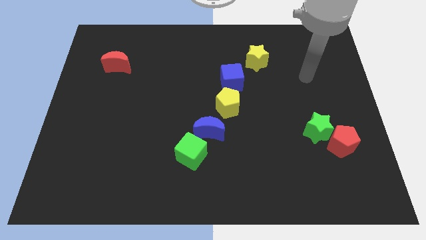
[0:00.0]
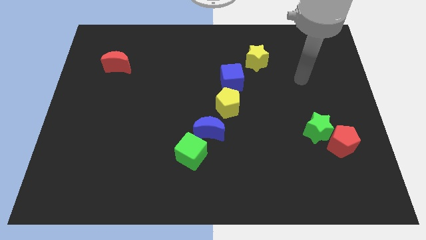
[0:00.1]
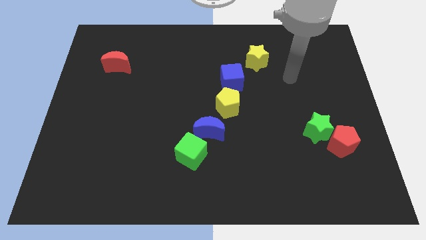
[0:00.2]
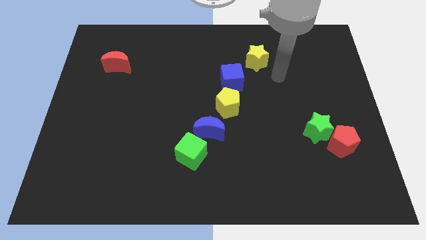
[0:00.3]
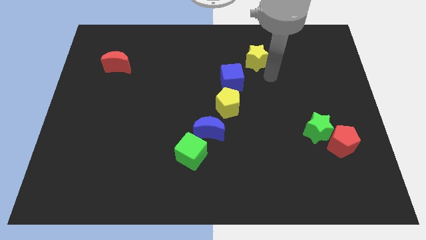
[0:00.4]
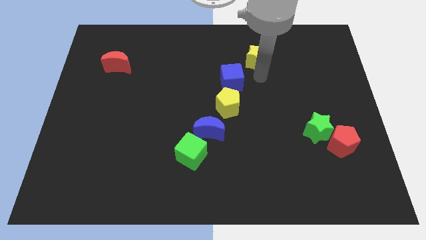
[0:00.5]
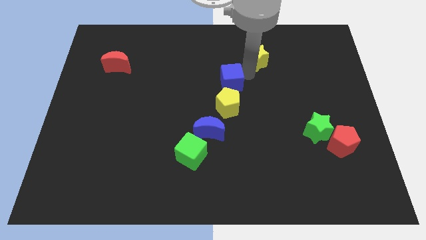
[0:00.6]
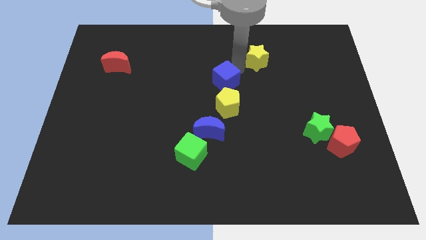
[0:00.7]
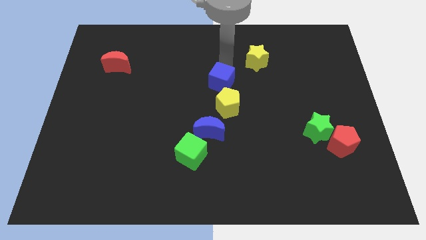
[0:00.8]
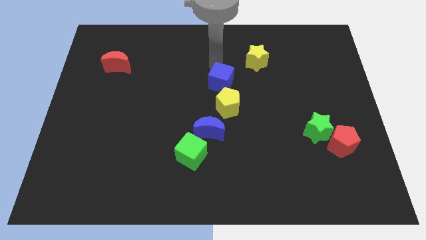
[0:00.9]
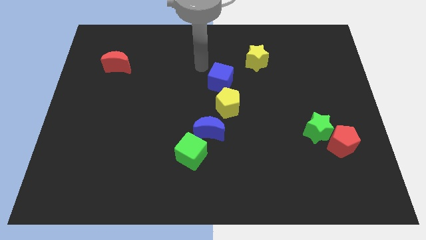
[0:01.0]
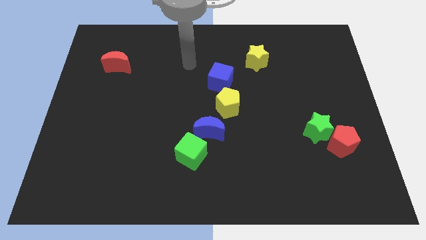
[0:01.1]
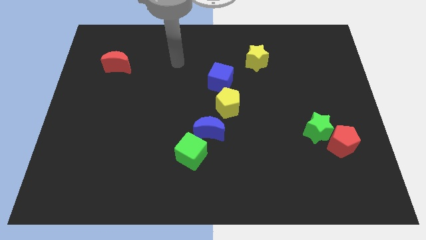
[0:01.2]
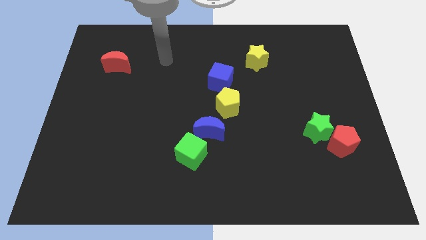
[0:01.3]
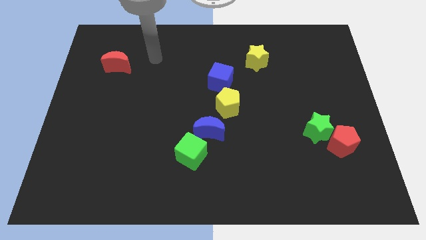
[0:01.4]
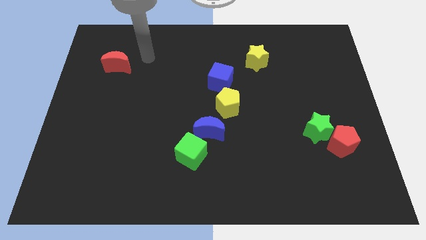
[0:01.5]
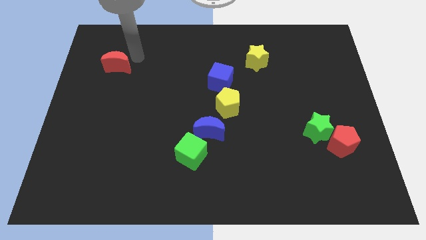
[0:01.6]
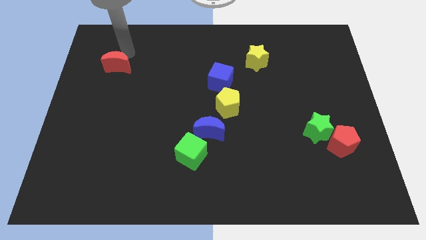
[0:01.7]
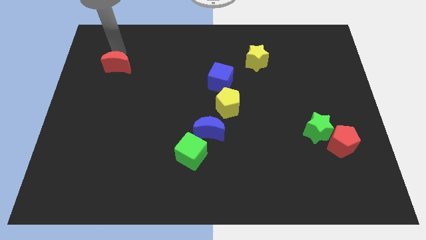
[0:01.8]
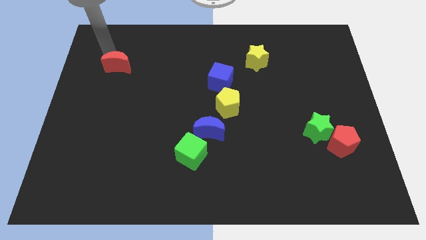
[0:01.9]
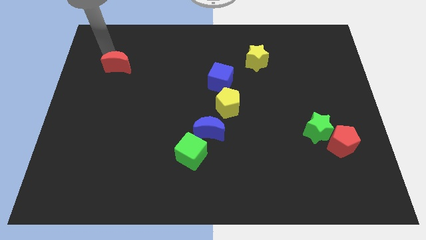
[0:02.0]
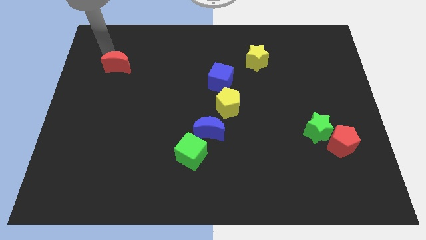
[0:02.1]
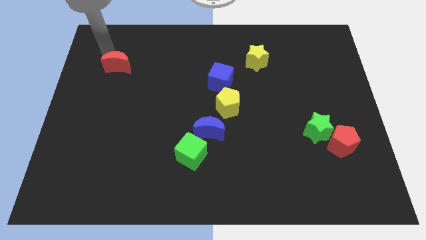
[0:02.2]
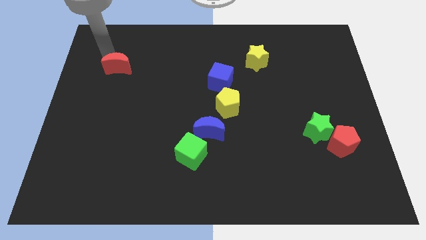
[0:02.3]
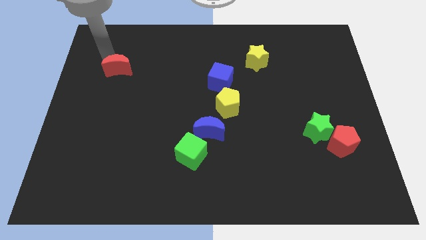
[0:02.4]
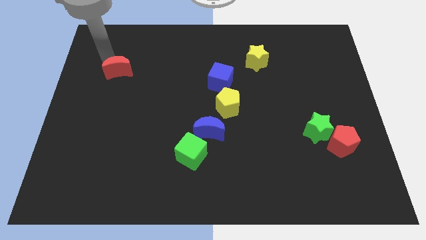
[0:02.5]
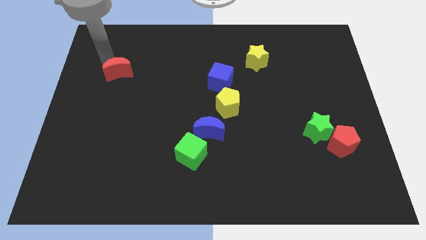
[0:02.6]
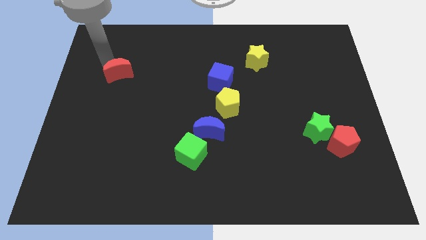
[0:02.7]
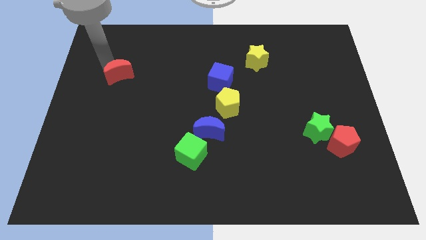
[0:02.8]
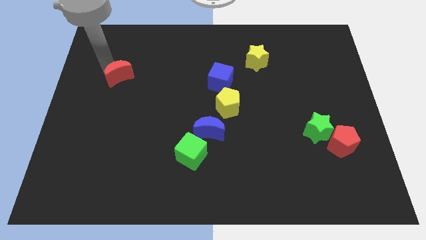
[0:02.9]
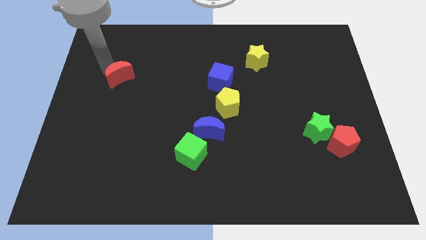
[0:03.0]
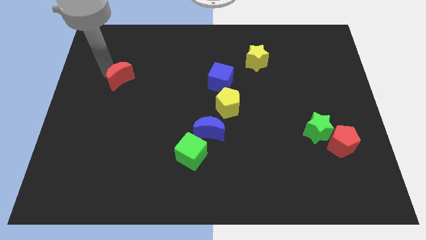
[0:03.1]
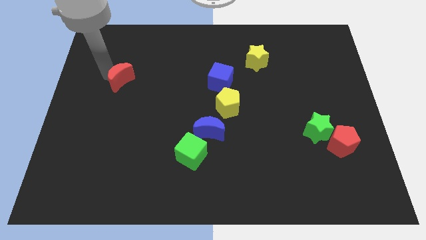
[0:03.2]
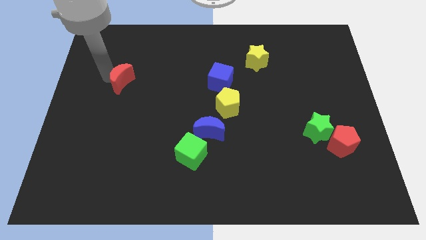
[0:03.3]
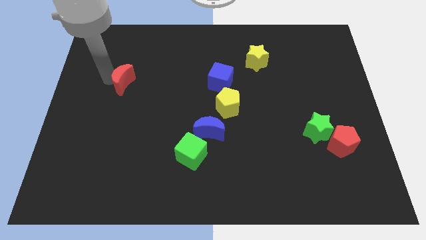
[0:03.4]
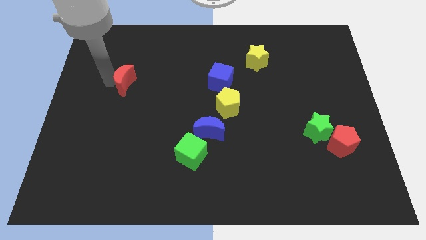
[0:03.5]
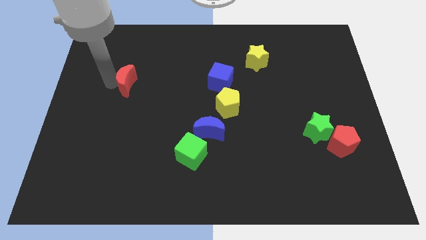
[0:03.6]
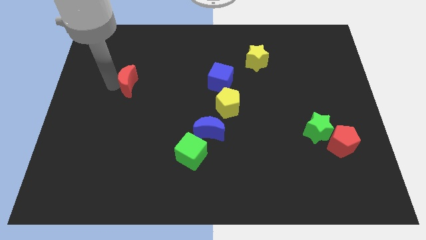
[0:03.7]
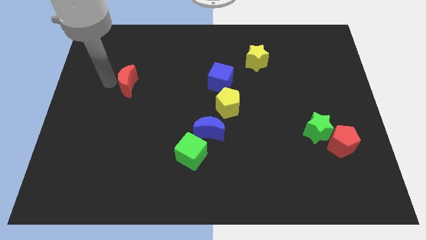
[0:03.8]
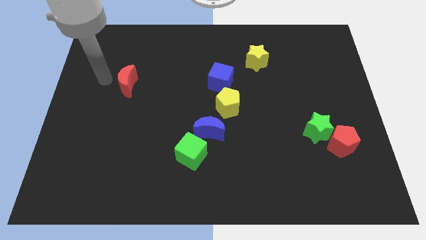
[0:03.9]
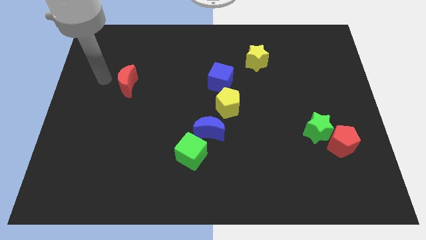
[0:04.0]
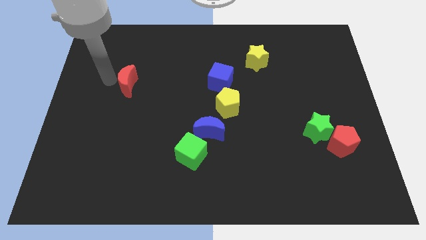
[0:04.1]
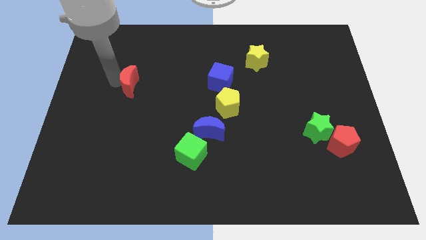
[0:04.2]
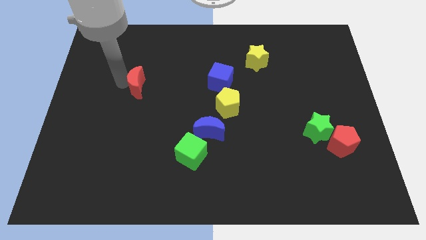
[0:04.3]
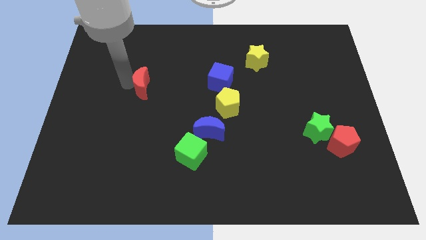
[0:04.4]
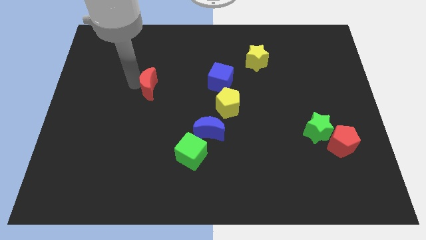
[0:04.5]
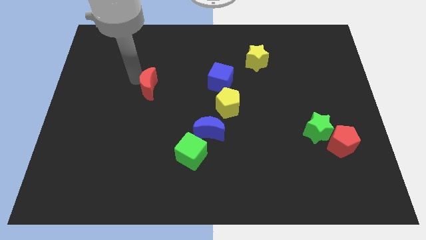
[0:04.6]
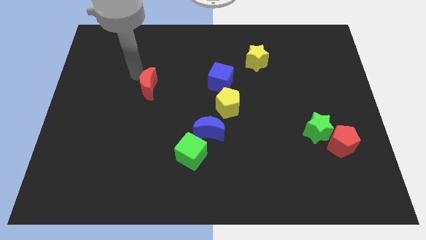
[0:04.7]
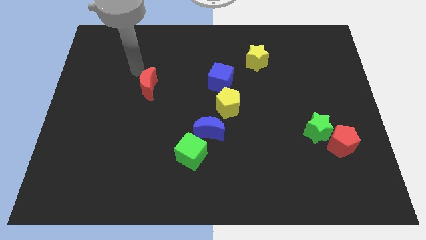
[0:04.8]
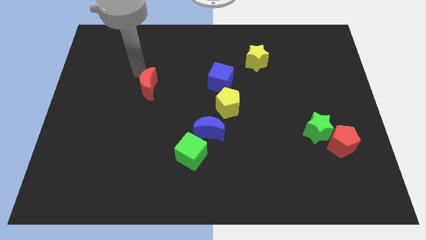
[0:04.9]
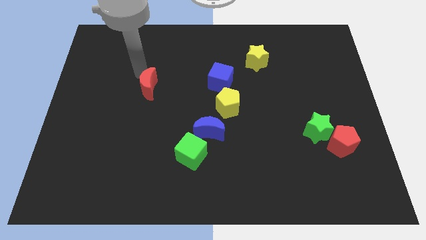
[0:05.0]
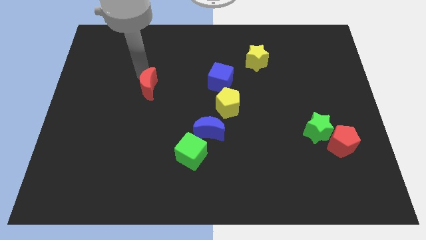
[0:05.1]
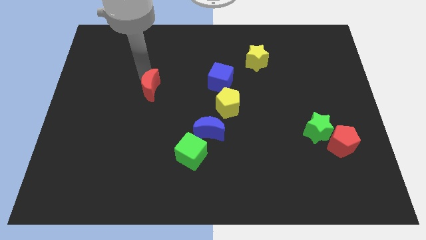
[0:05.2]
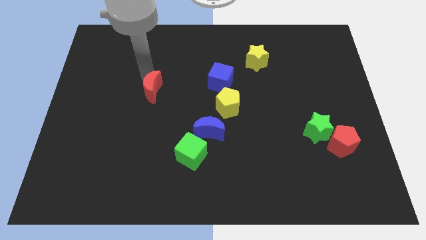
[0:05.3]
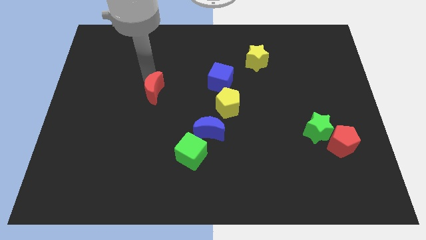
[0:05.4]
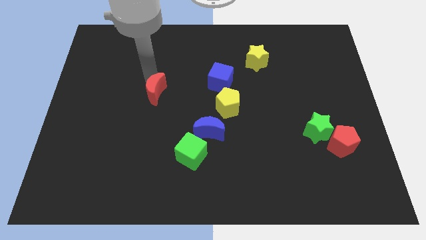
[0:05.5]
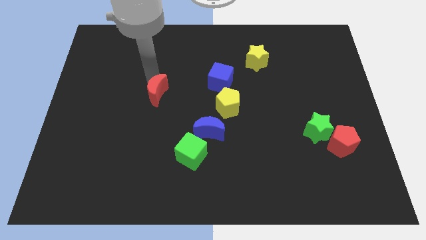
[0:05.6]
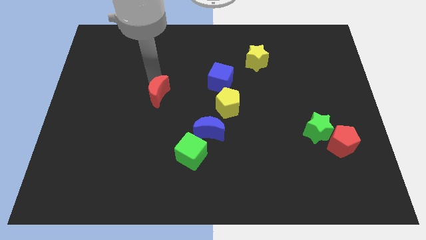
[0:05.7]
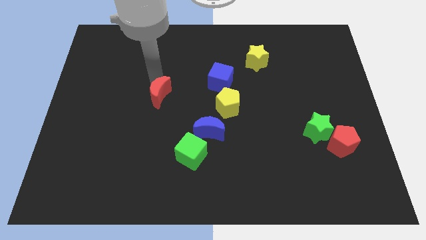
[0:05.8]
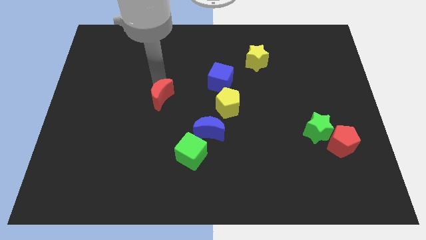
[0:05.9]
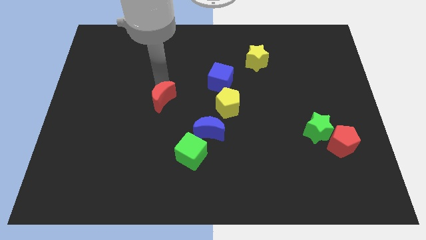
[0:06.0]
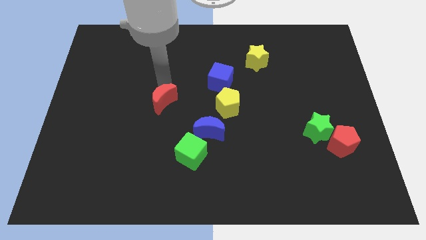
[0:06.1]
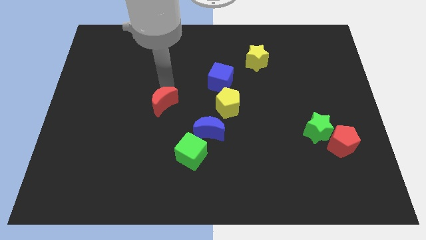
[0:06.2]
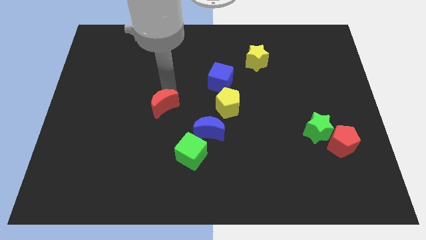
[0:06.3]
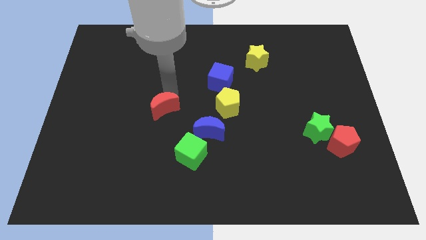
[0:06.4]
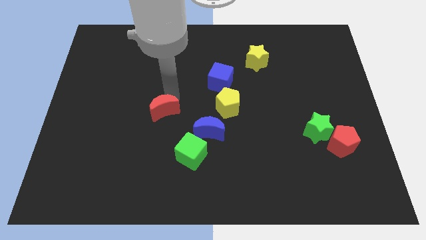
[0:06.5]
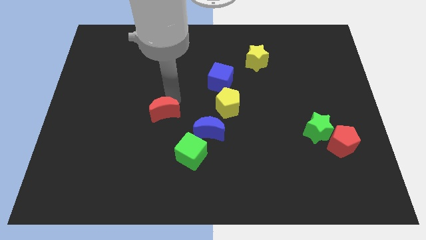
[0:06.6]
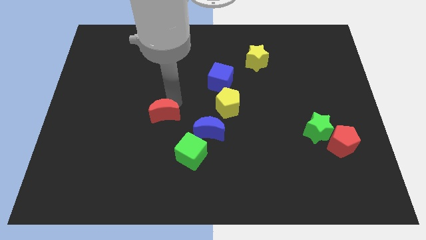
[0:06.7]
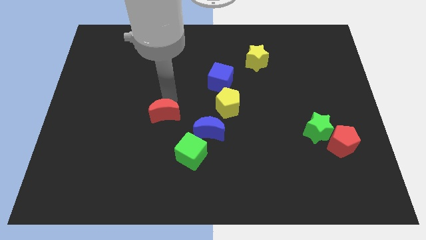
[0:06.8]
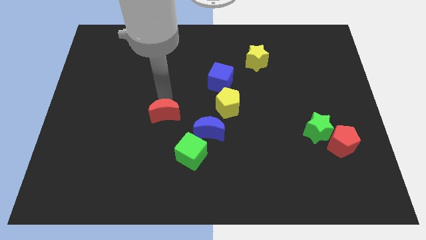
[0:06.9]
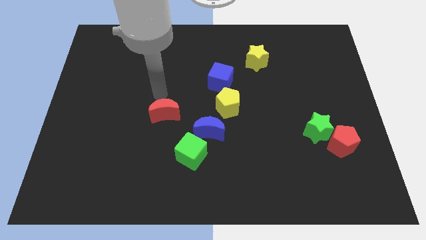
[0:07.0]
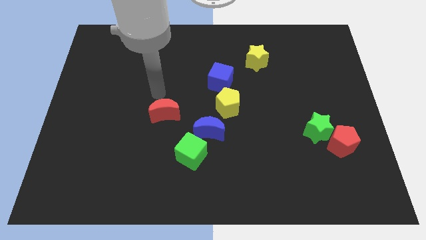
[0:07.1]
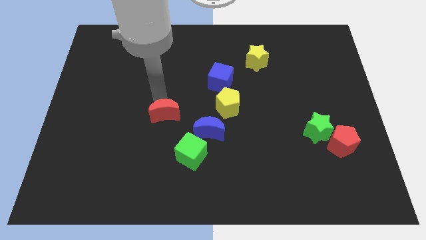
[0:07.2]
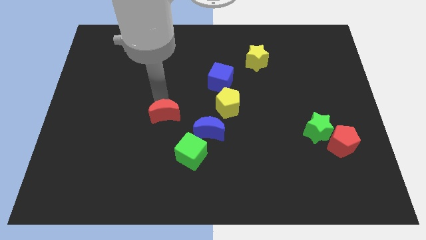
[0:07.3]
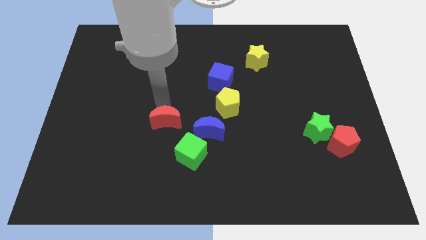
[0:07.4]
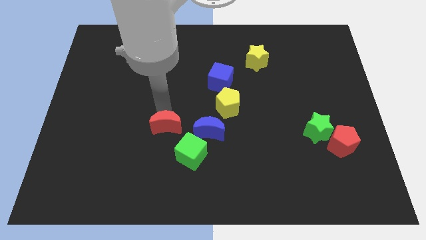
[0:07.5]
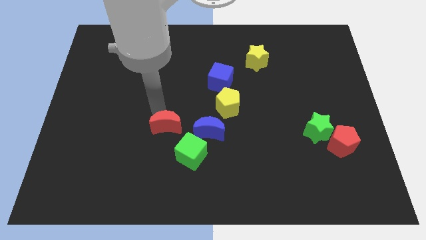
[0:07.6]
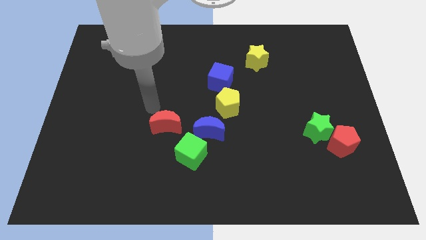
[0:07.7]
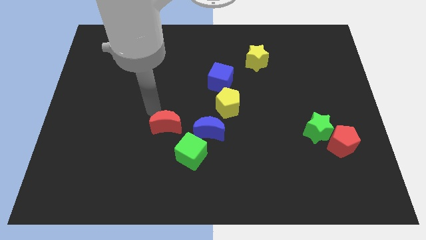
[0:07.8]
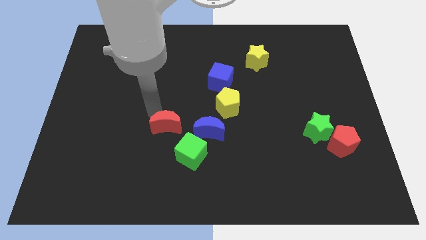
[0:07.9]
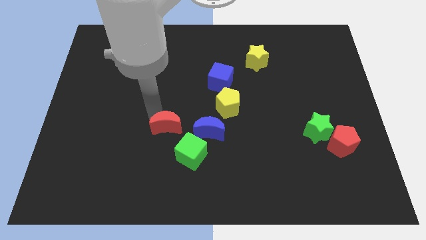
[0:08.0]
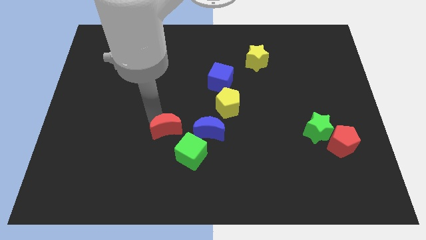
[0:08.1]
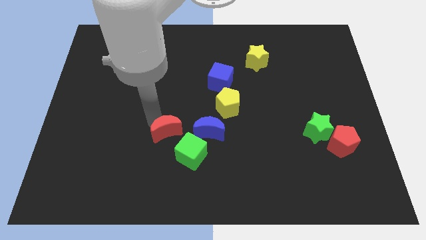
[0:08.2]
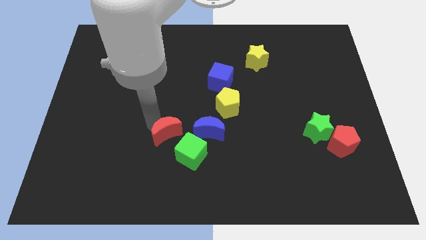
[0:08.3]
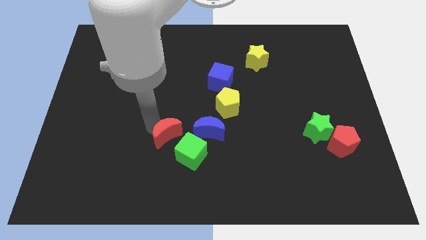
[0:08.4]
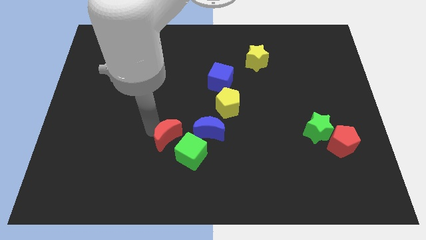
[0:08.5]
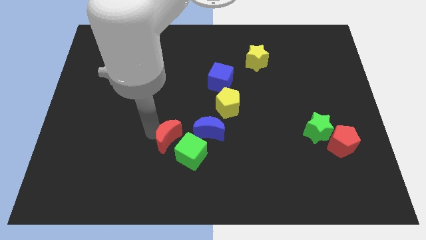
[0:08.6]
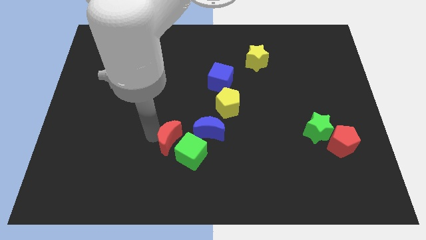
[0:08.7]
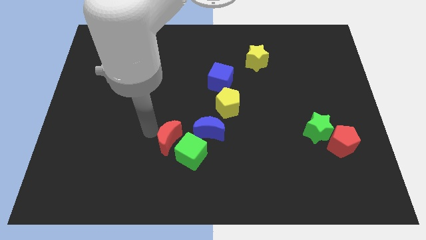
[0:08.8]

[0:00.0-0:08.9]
slide the red moon towards the green cube
